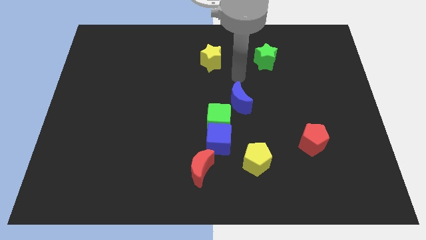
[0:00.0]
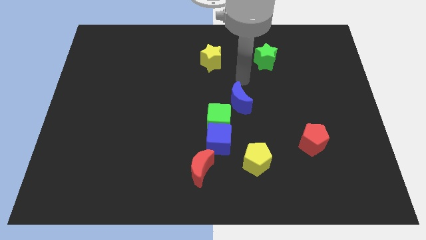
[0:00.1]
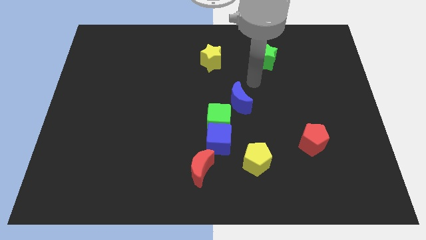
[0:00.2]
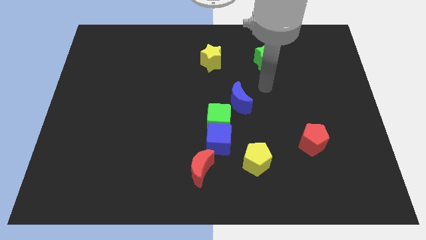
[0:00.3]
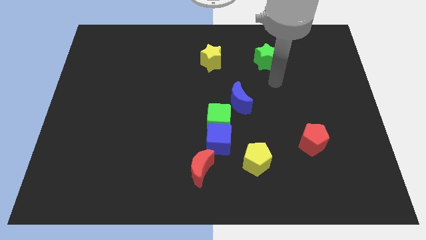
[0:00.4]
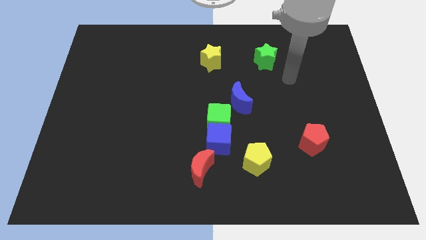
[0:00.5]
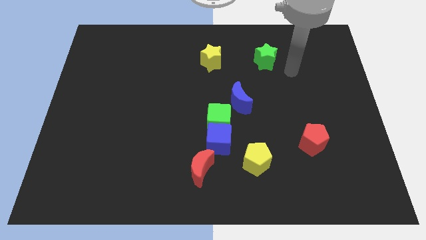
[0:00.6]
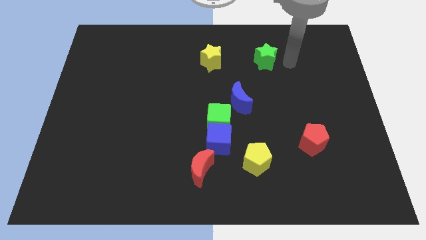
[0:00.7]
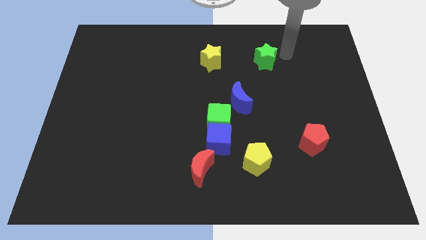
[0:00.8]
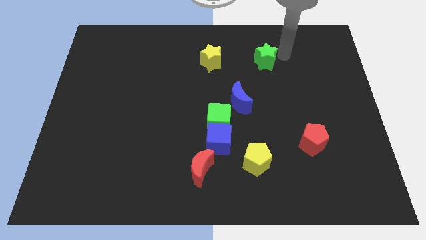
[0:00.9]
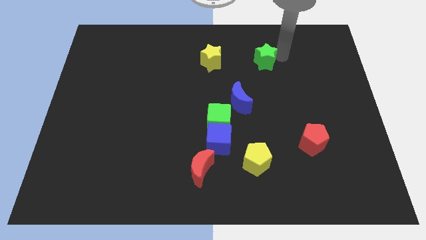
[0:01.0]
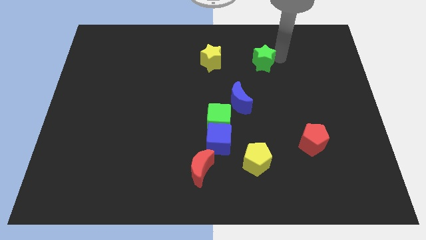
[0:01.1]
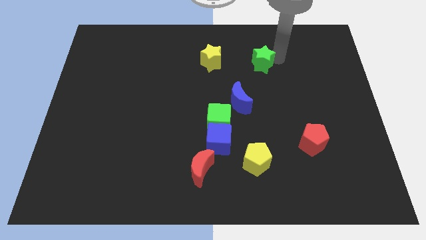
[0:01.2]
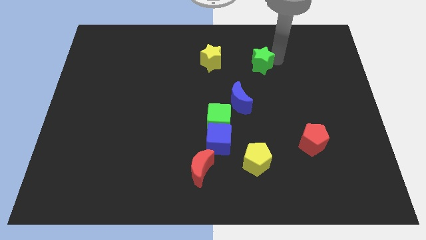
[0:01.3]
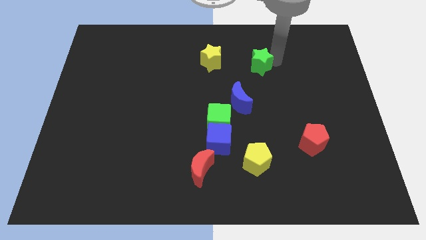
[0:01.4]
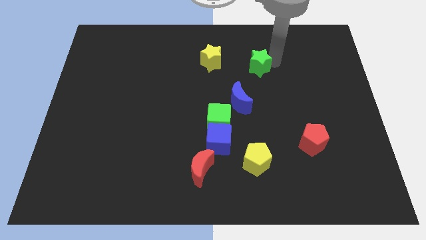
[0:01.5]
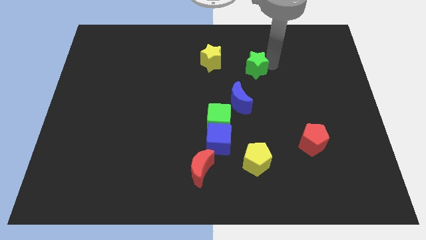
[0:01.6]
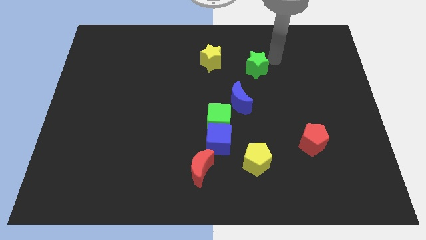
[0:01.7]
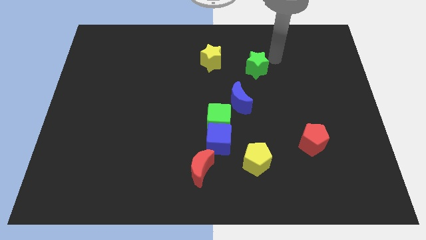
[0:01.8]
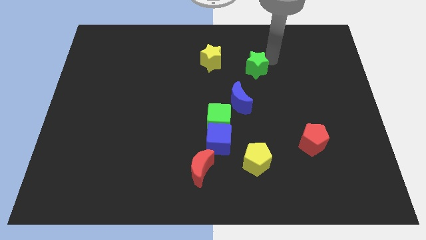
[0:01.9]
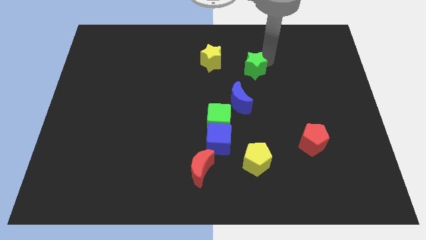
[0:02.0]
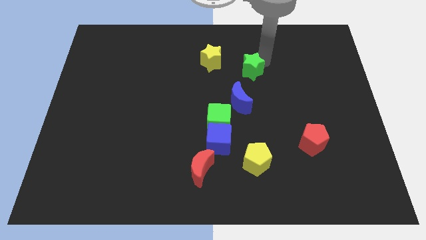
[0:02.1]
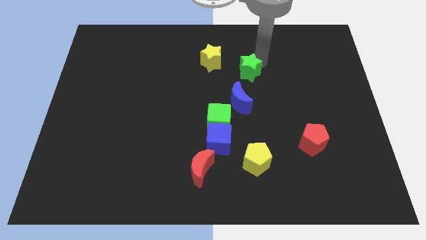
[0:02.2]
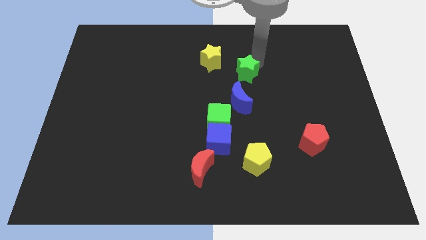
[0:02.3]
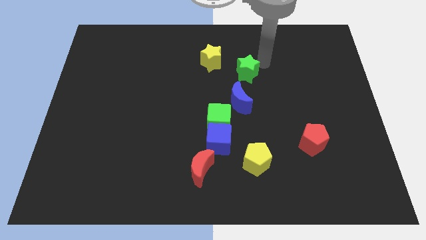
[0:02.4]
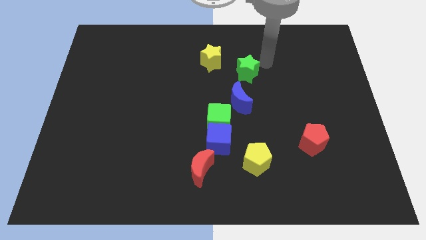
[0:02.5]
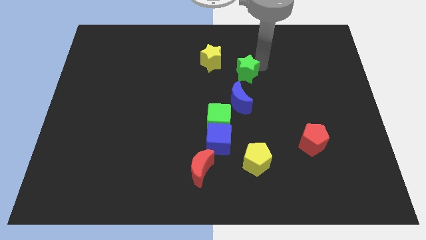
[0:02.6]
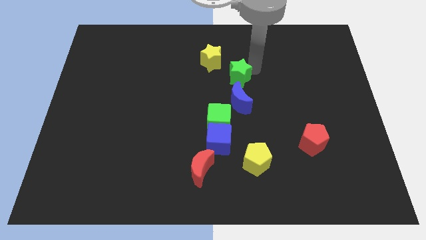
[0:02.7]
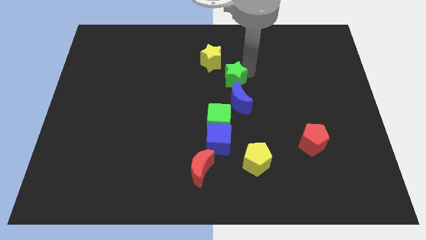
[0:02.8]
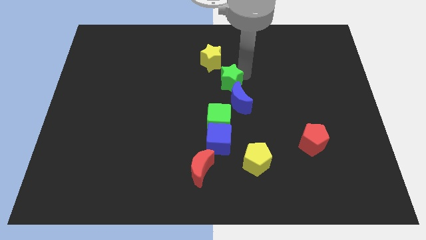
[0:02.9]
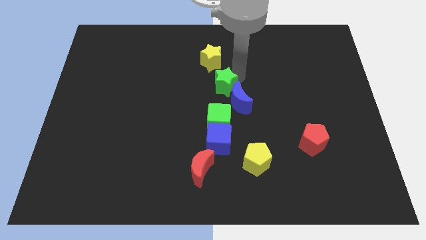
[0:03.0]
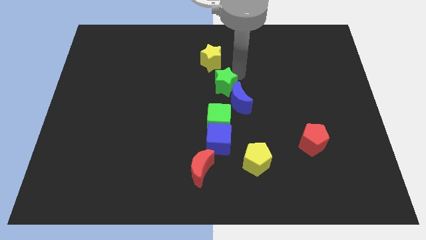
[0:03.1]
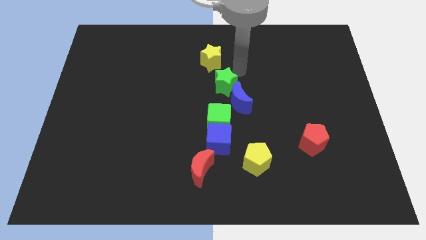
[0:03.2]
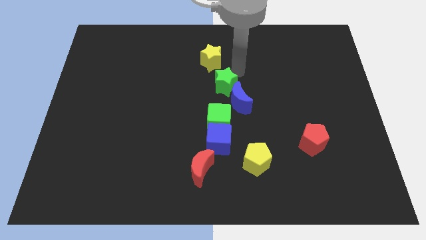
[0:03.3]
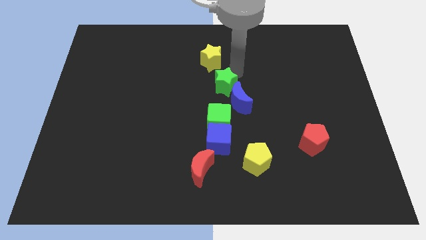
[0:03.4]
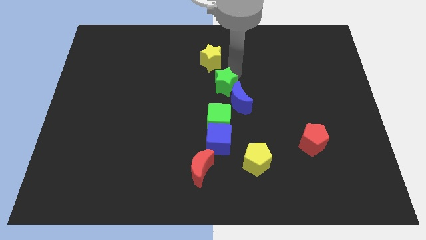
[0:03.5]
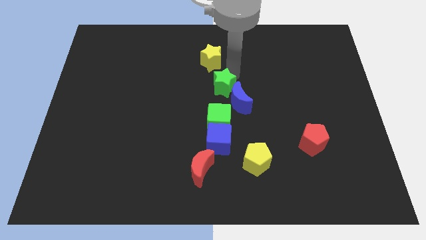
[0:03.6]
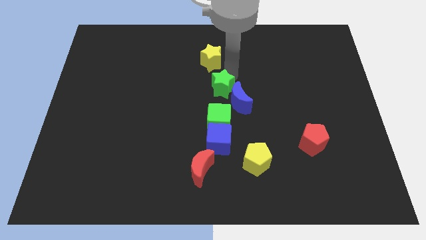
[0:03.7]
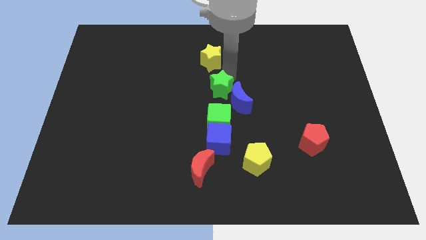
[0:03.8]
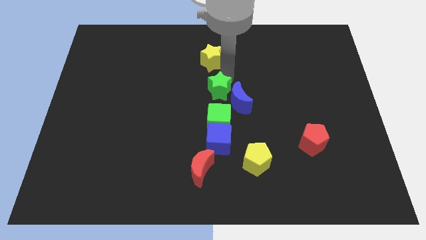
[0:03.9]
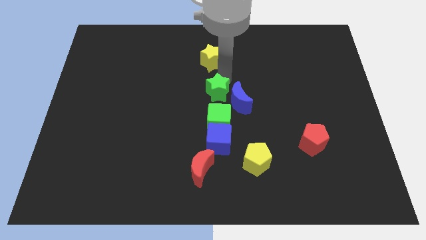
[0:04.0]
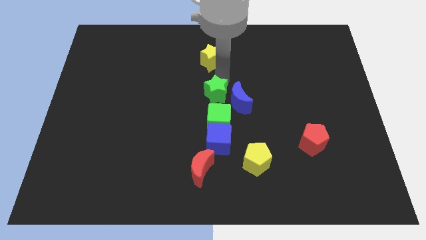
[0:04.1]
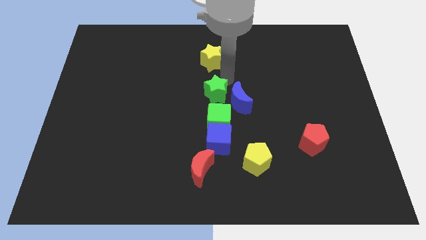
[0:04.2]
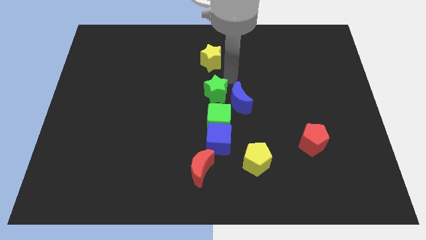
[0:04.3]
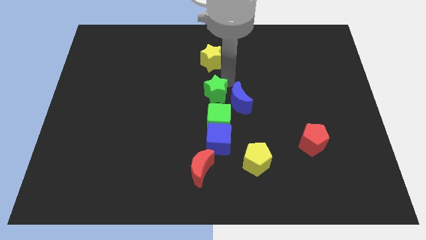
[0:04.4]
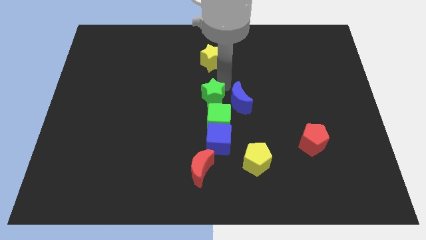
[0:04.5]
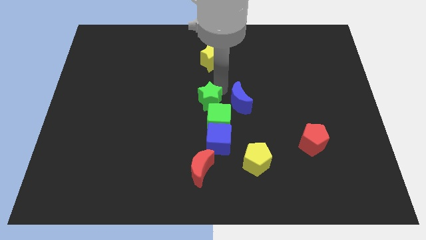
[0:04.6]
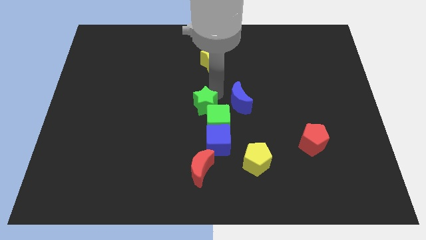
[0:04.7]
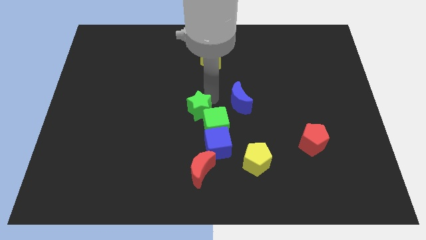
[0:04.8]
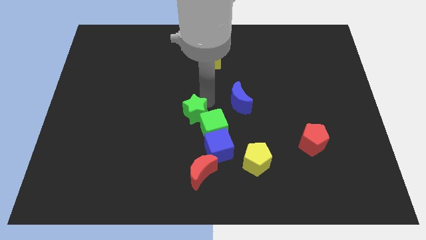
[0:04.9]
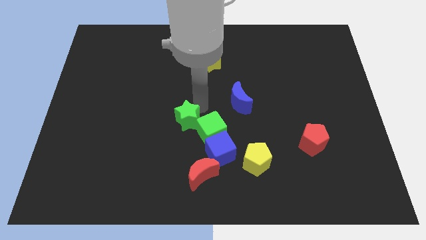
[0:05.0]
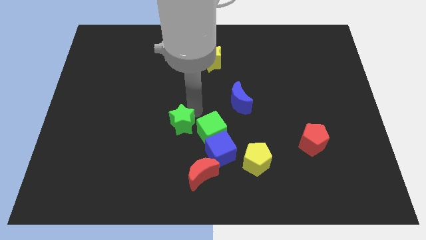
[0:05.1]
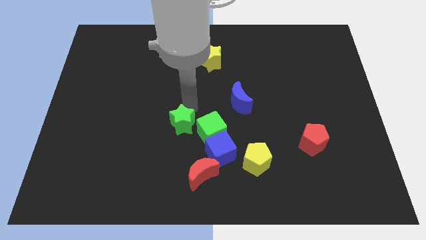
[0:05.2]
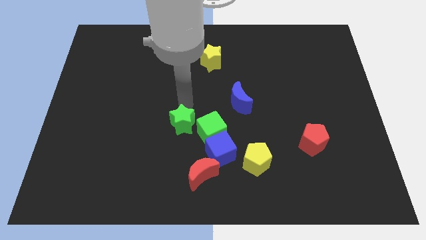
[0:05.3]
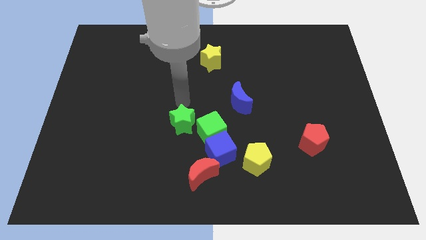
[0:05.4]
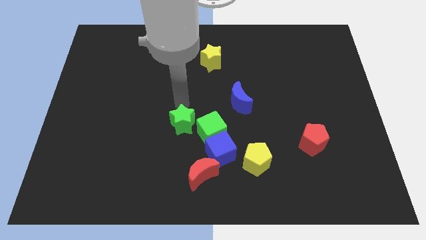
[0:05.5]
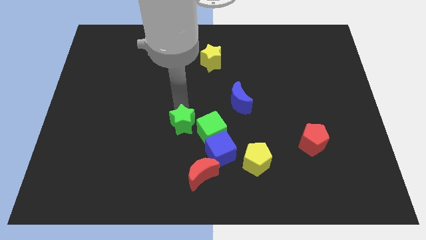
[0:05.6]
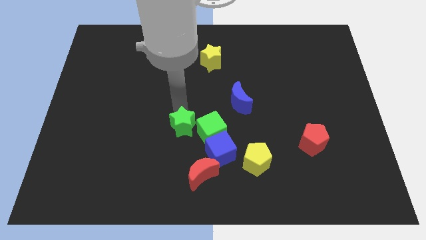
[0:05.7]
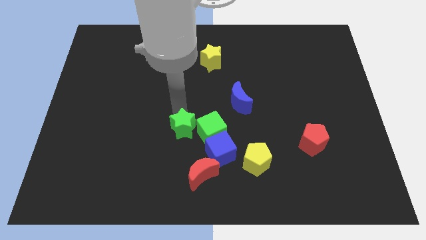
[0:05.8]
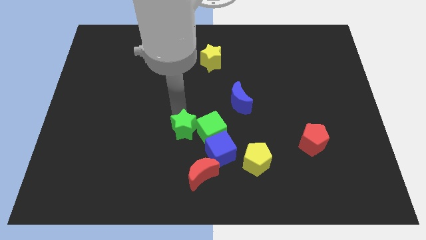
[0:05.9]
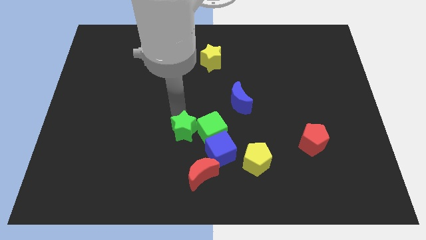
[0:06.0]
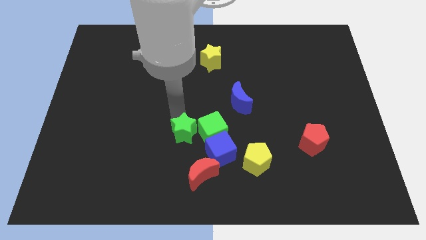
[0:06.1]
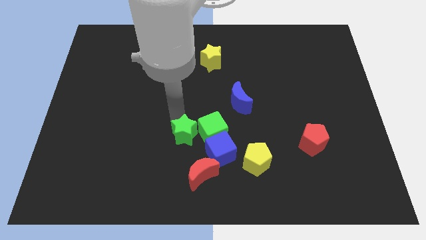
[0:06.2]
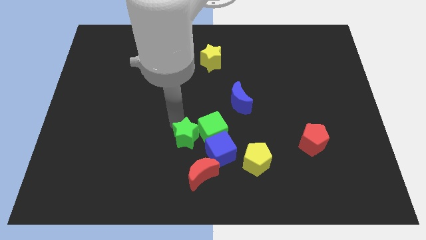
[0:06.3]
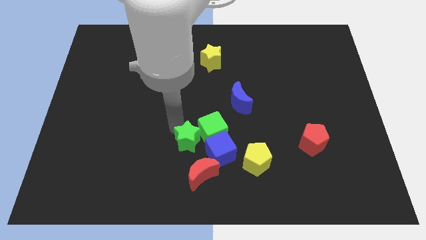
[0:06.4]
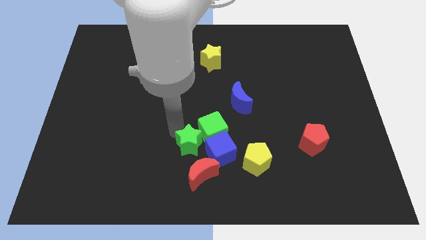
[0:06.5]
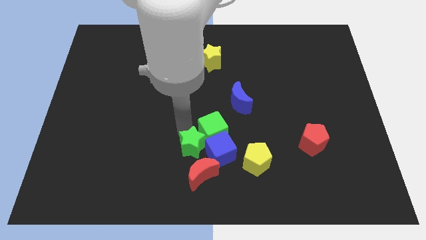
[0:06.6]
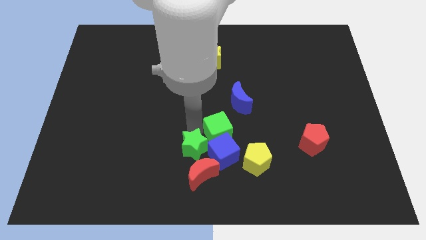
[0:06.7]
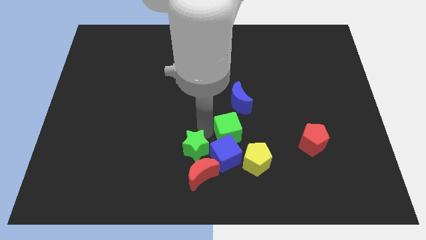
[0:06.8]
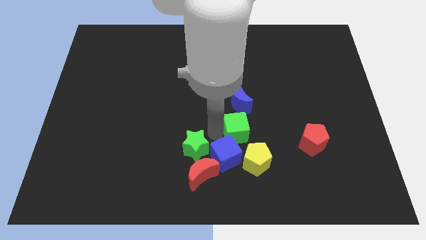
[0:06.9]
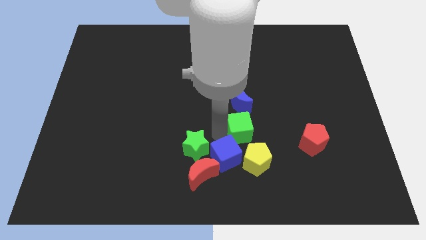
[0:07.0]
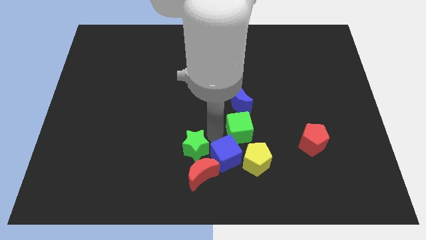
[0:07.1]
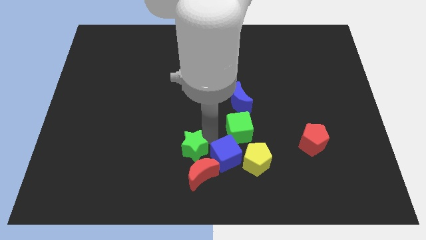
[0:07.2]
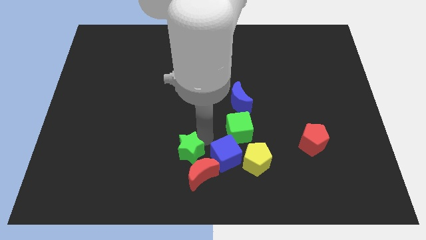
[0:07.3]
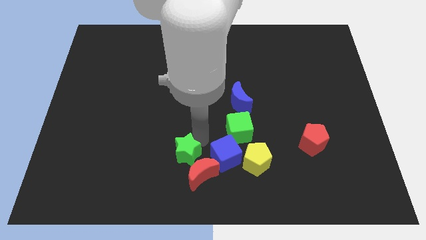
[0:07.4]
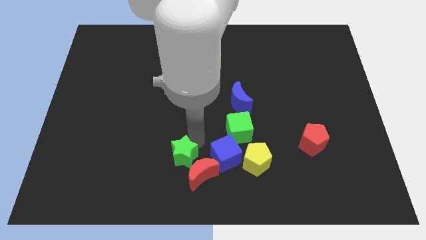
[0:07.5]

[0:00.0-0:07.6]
slide the green star left of the red moon

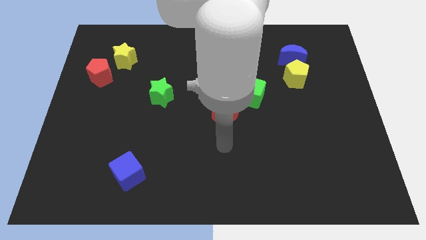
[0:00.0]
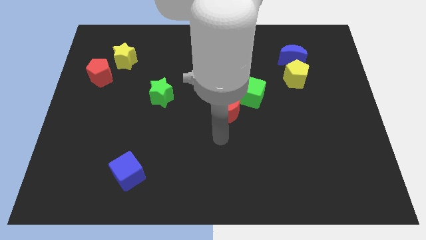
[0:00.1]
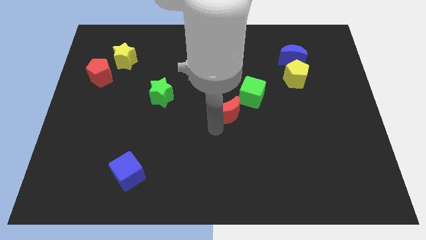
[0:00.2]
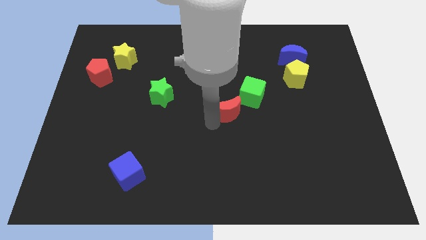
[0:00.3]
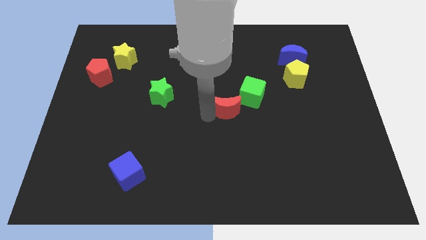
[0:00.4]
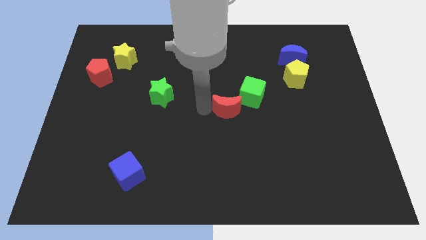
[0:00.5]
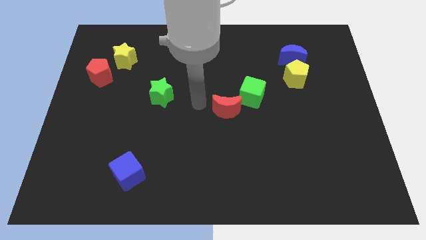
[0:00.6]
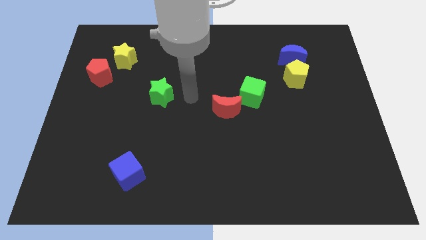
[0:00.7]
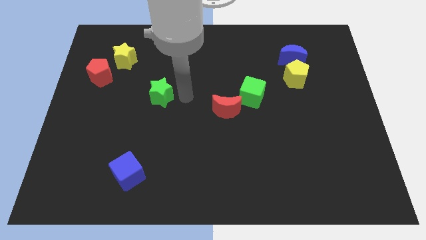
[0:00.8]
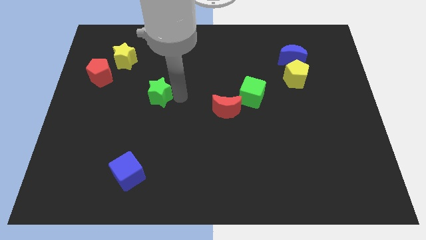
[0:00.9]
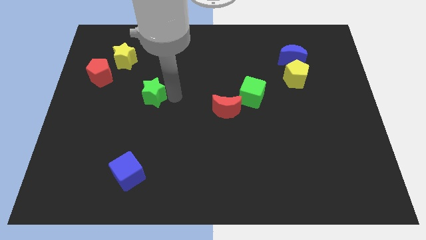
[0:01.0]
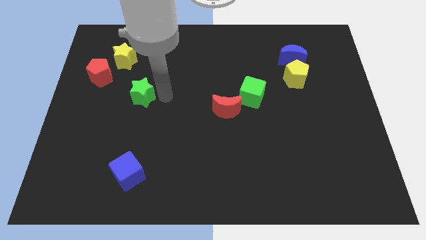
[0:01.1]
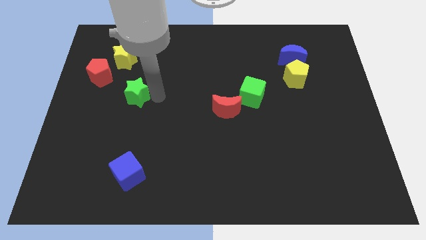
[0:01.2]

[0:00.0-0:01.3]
move the green star diagonally down and to the right of the red pentagon
